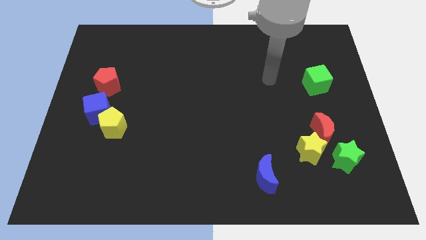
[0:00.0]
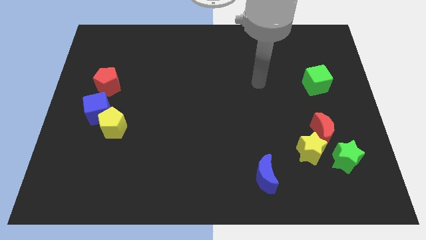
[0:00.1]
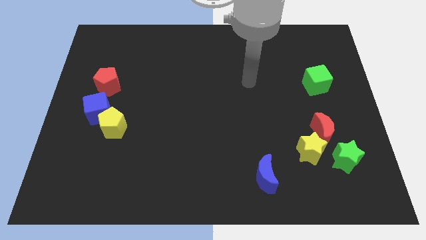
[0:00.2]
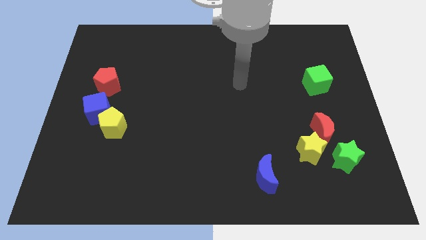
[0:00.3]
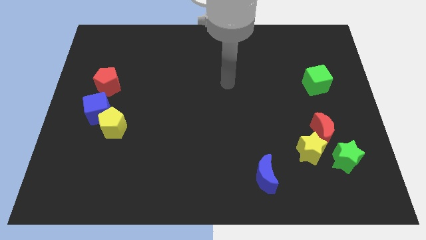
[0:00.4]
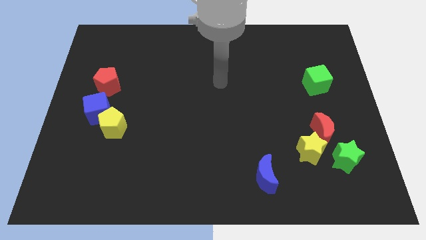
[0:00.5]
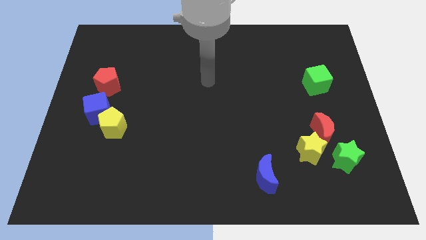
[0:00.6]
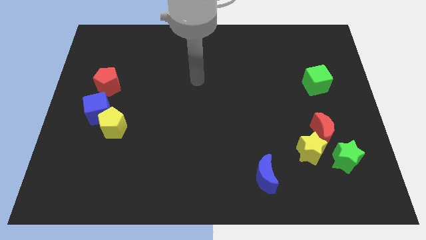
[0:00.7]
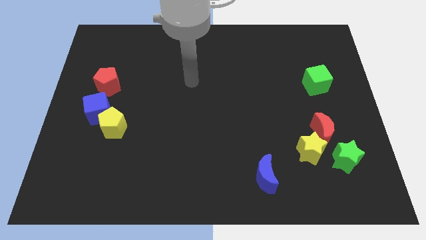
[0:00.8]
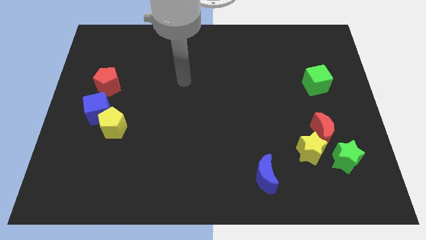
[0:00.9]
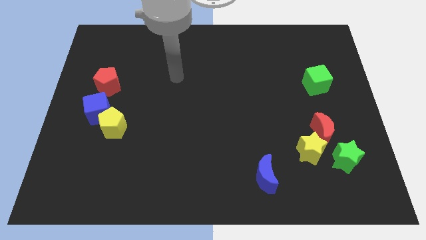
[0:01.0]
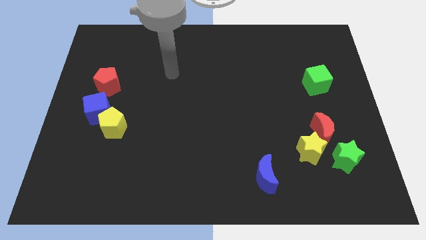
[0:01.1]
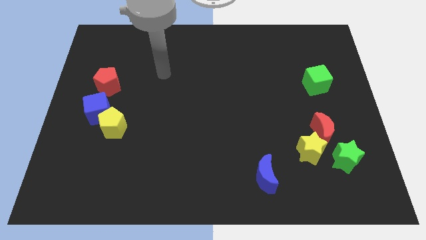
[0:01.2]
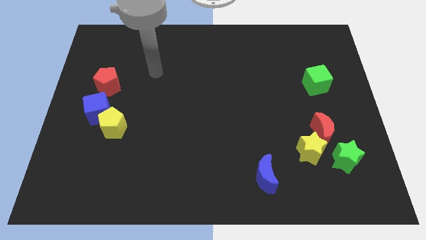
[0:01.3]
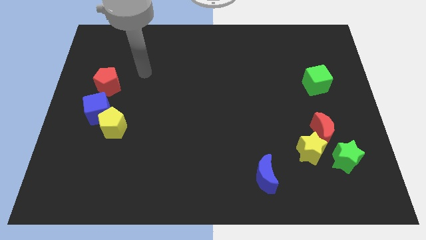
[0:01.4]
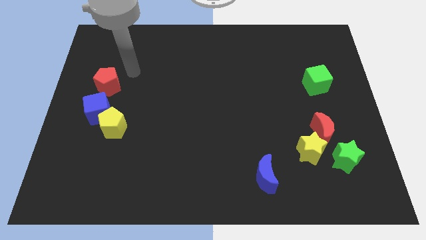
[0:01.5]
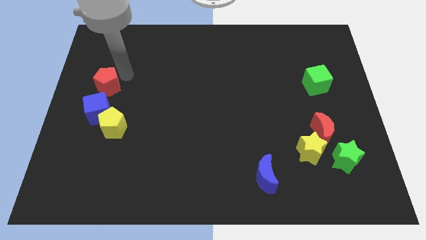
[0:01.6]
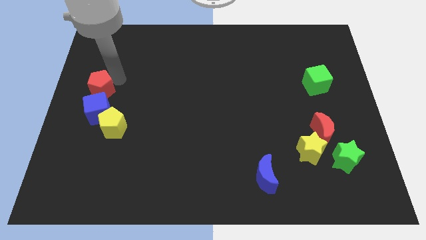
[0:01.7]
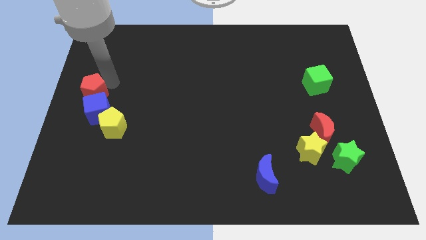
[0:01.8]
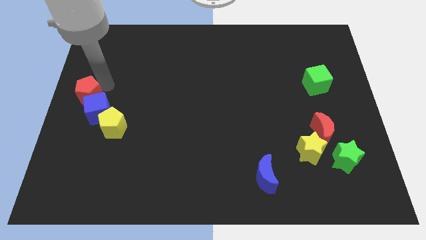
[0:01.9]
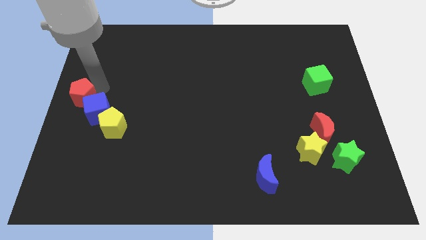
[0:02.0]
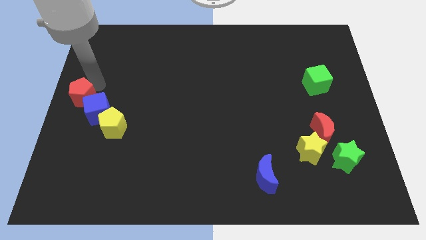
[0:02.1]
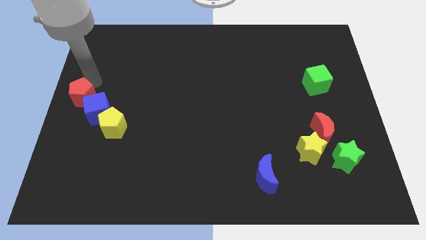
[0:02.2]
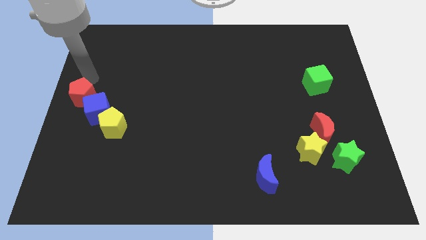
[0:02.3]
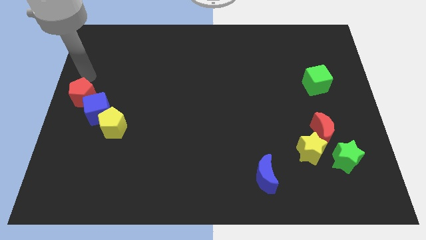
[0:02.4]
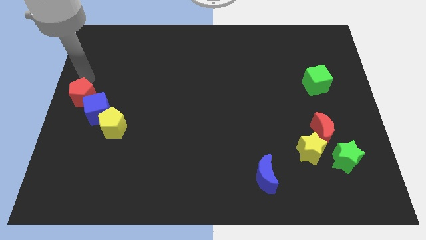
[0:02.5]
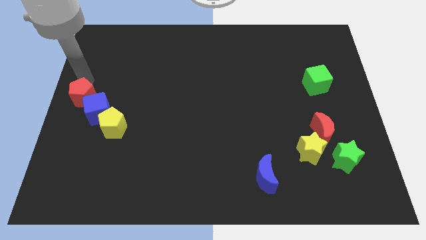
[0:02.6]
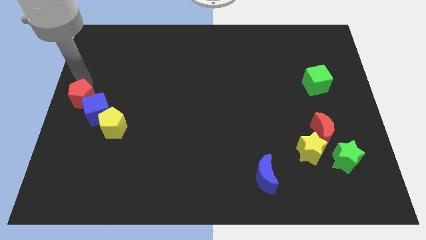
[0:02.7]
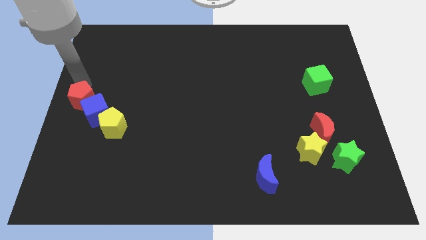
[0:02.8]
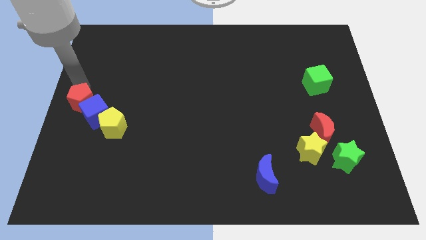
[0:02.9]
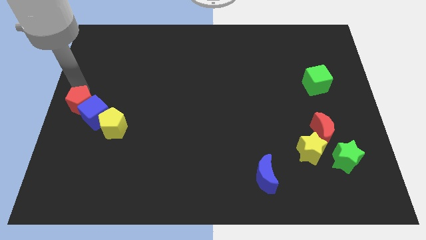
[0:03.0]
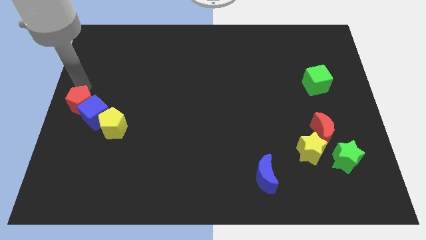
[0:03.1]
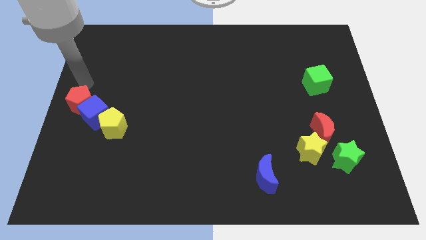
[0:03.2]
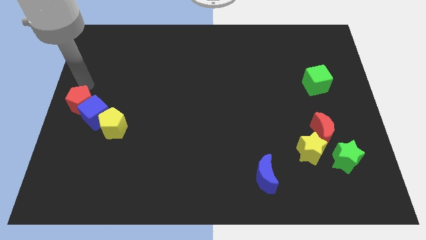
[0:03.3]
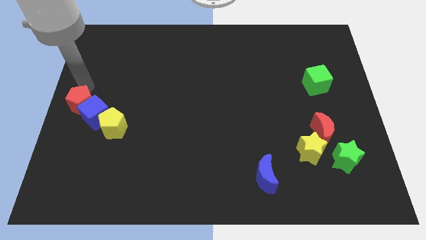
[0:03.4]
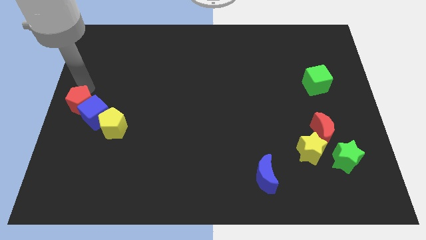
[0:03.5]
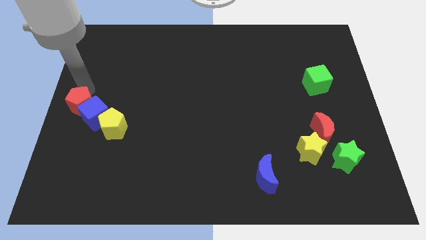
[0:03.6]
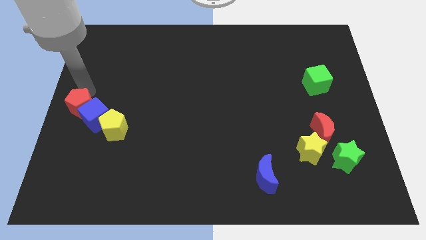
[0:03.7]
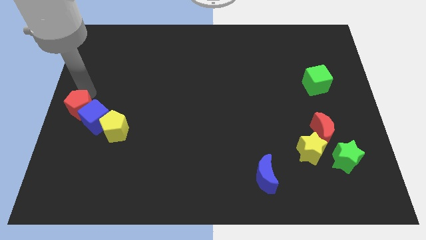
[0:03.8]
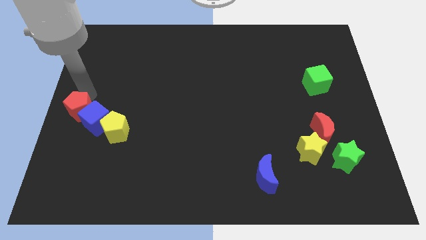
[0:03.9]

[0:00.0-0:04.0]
push the red pentagon downwards a bit

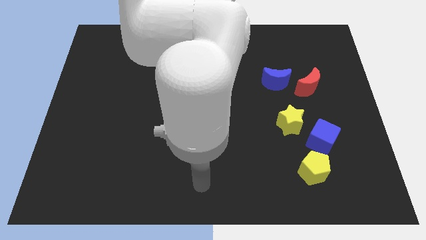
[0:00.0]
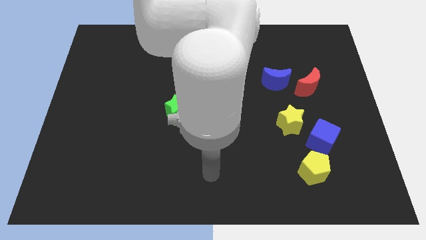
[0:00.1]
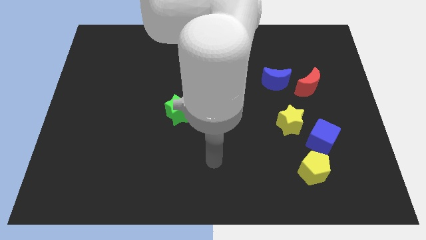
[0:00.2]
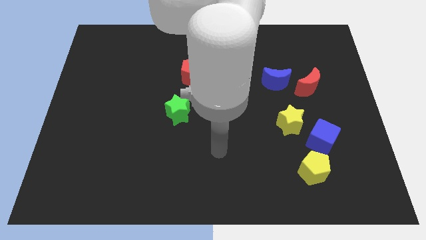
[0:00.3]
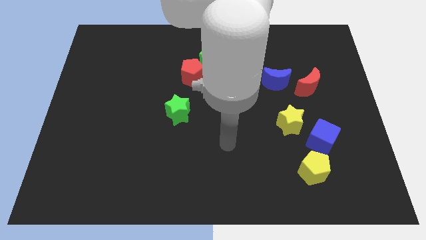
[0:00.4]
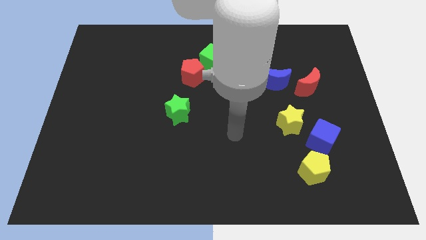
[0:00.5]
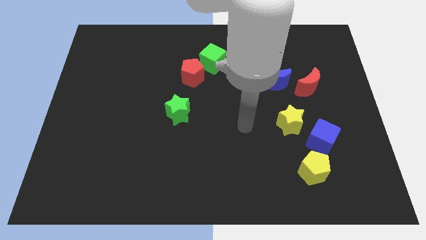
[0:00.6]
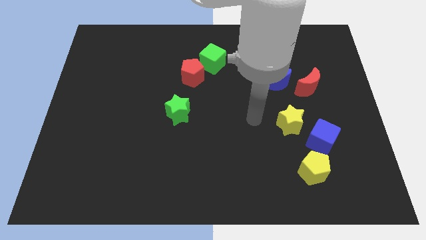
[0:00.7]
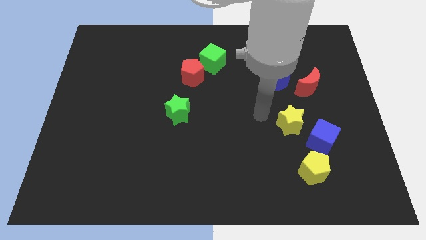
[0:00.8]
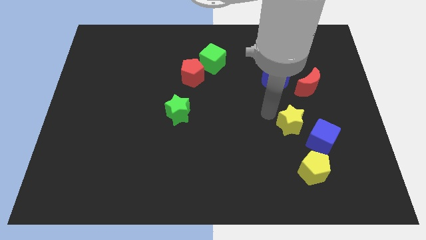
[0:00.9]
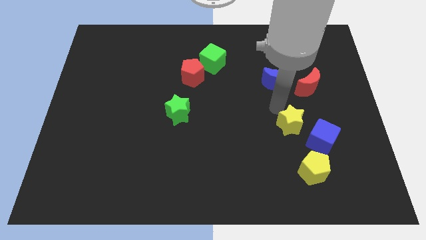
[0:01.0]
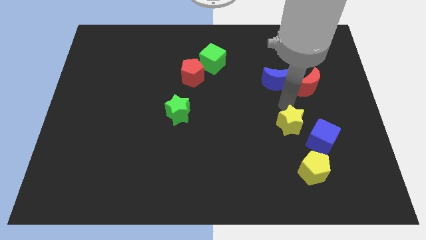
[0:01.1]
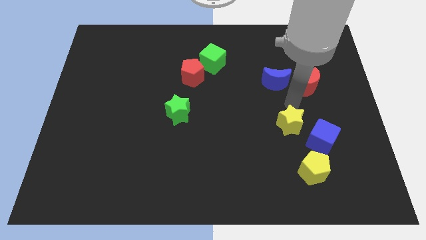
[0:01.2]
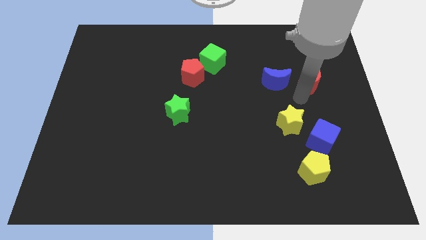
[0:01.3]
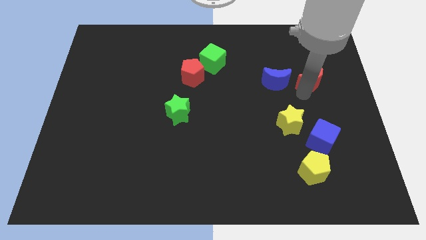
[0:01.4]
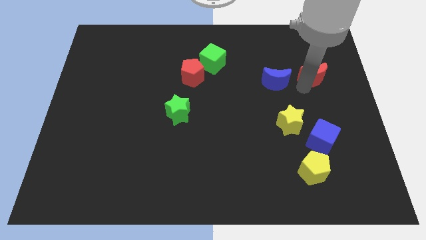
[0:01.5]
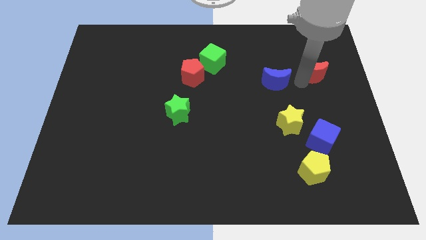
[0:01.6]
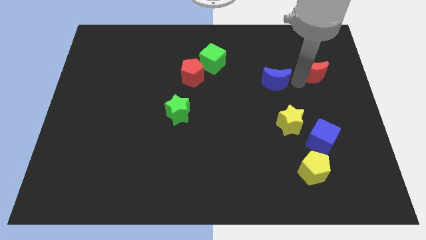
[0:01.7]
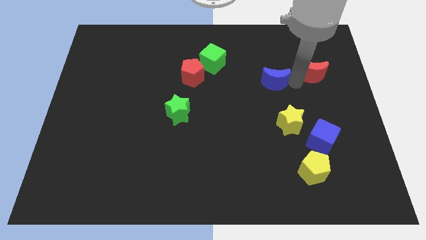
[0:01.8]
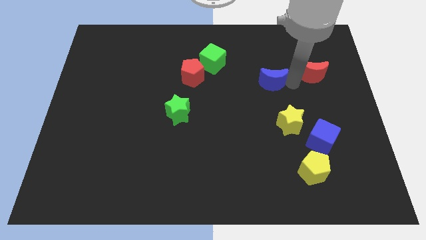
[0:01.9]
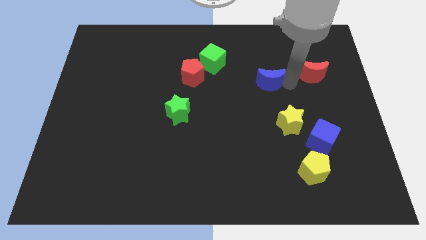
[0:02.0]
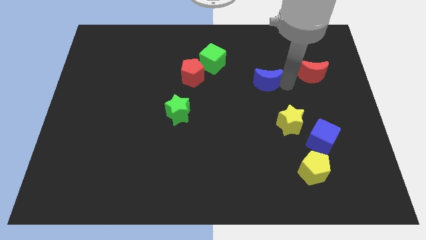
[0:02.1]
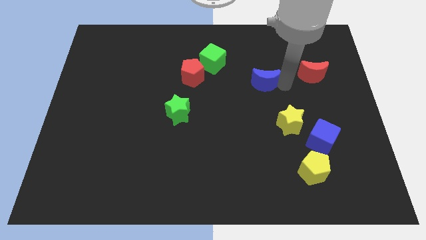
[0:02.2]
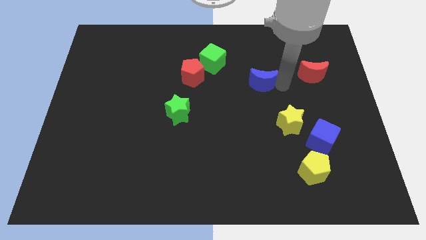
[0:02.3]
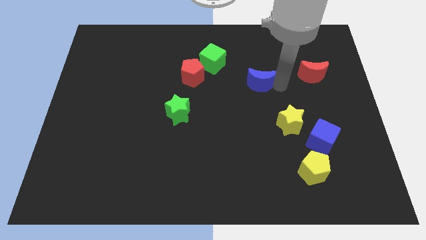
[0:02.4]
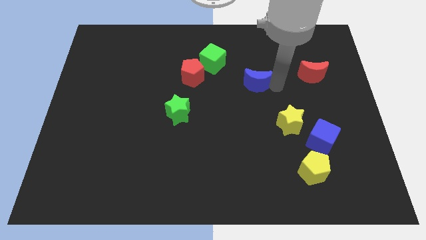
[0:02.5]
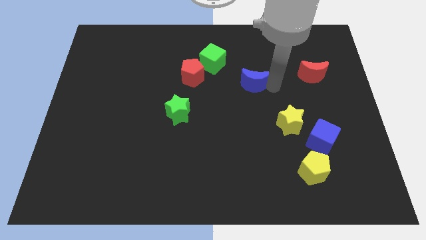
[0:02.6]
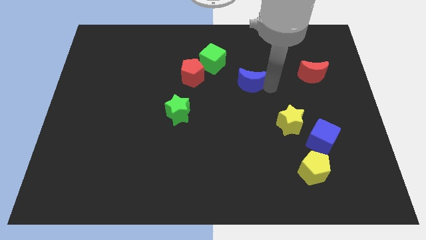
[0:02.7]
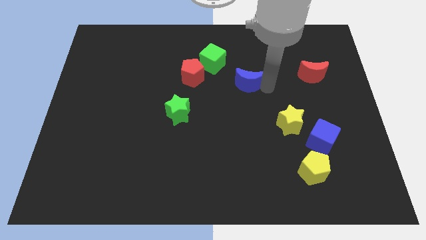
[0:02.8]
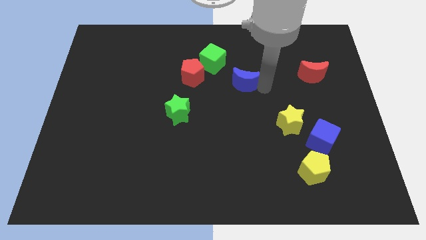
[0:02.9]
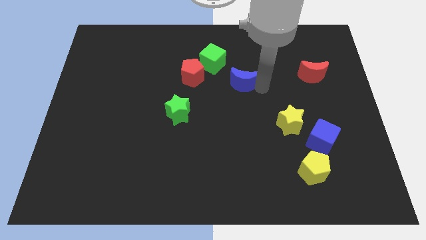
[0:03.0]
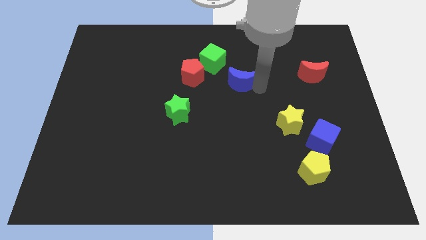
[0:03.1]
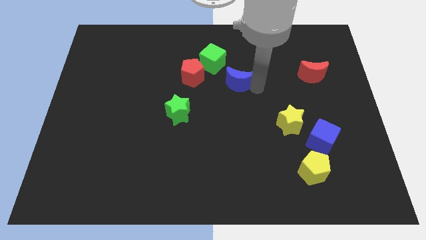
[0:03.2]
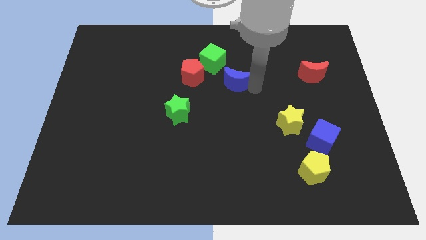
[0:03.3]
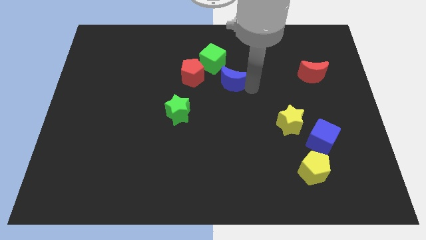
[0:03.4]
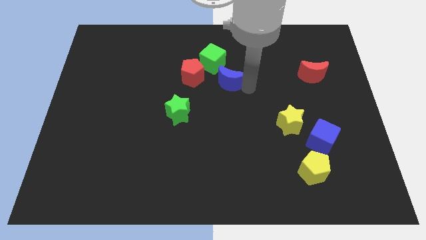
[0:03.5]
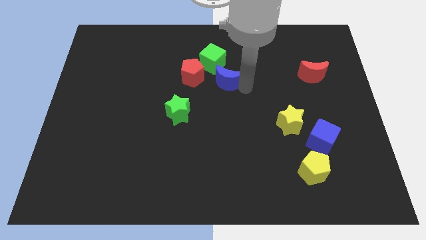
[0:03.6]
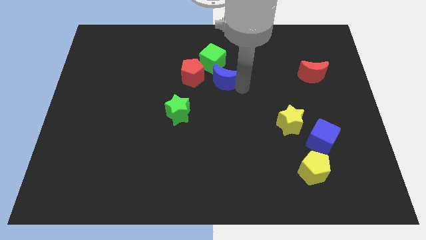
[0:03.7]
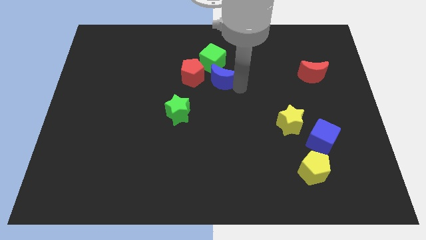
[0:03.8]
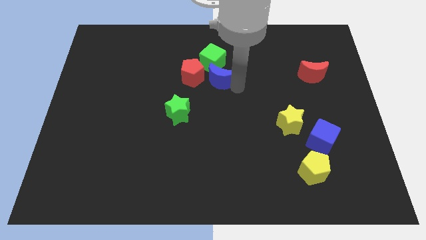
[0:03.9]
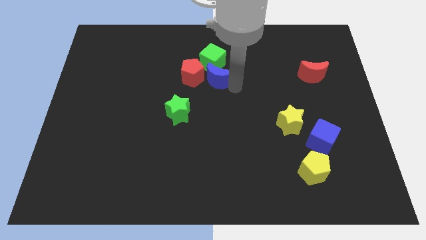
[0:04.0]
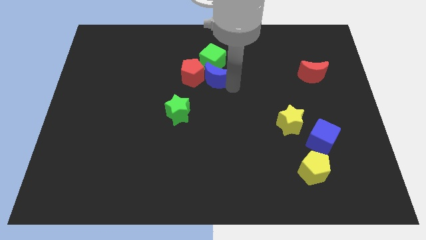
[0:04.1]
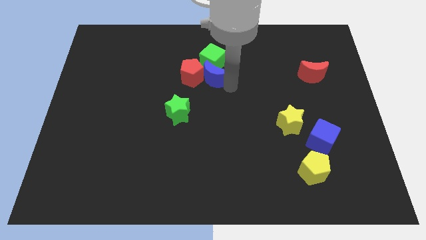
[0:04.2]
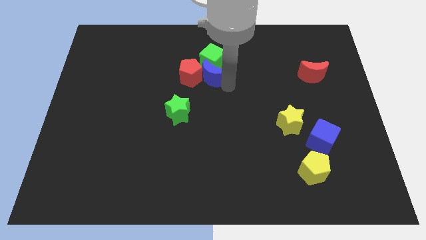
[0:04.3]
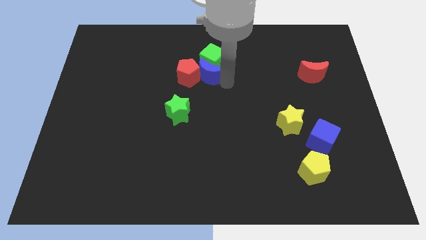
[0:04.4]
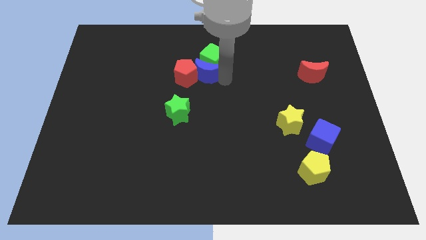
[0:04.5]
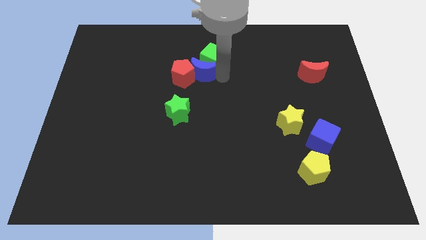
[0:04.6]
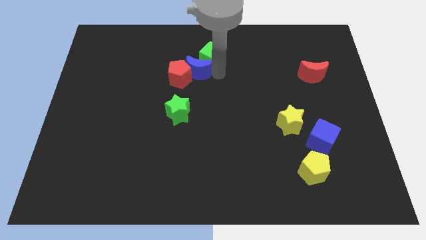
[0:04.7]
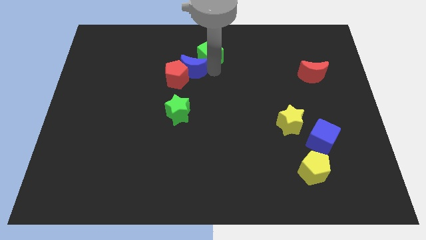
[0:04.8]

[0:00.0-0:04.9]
push the blue moon to the left
